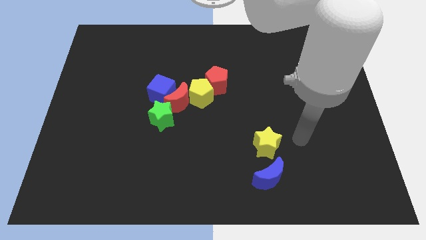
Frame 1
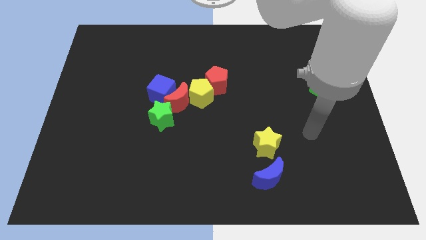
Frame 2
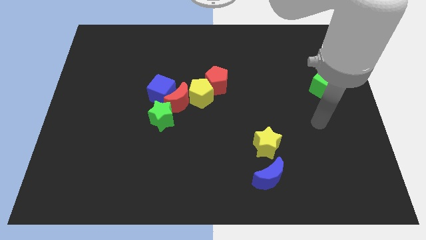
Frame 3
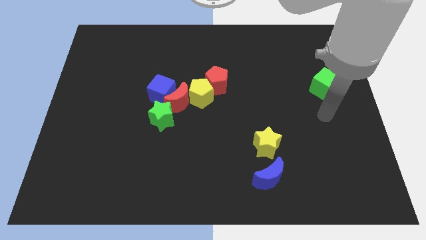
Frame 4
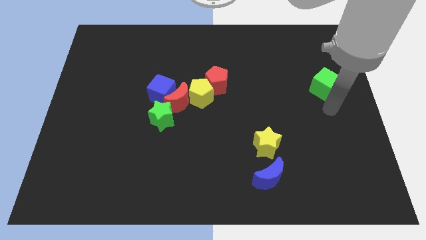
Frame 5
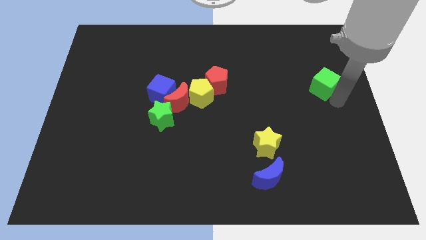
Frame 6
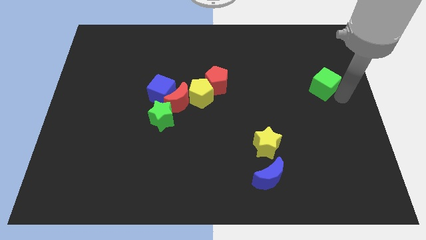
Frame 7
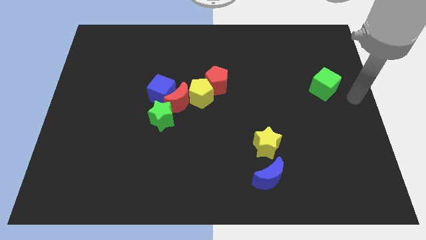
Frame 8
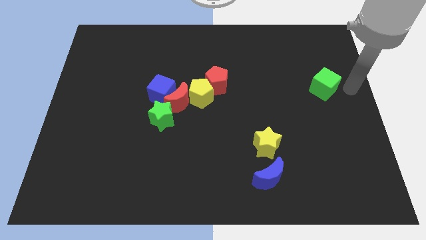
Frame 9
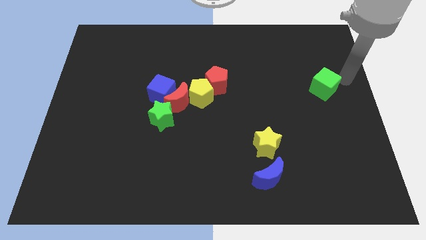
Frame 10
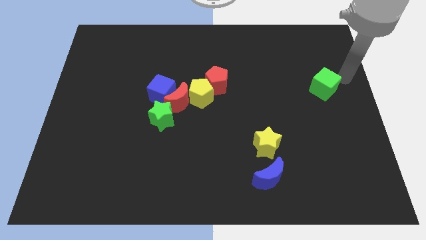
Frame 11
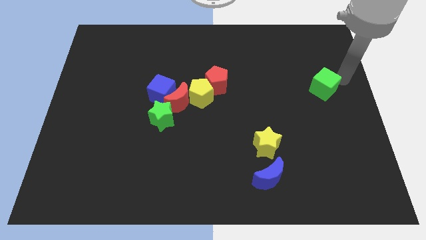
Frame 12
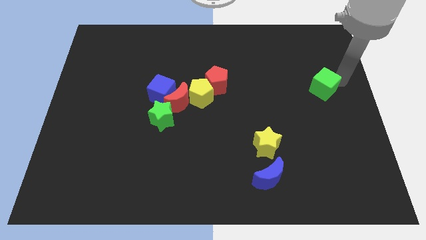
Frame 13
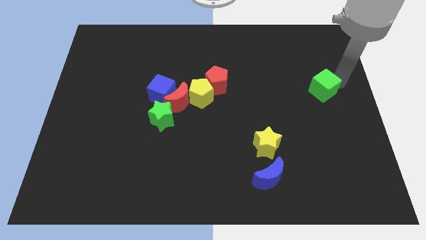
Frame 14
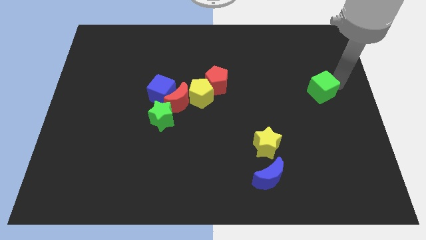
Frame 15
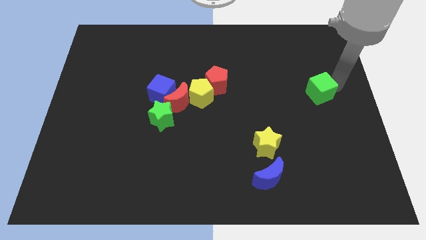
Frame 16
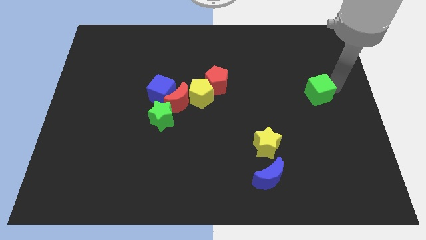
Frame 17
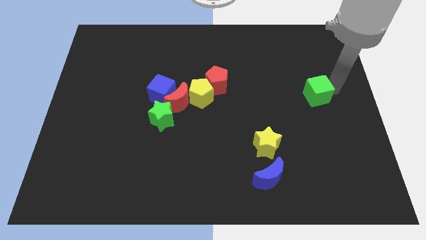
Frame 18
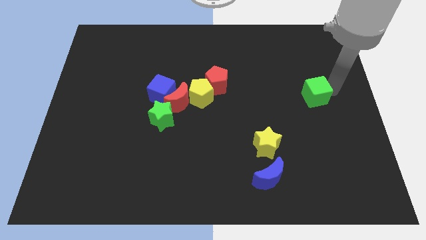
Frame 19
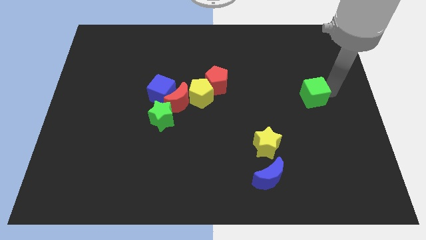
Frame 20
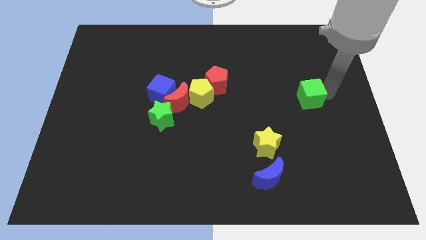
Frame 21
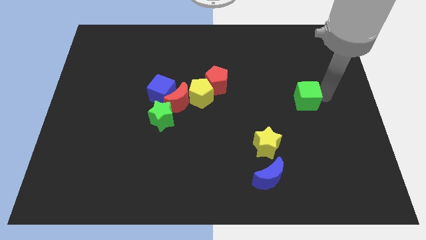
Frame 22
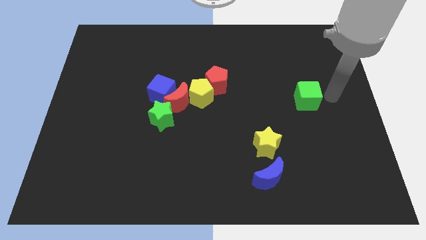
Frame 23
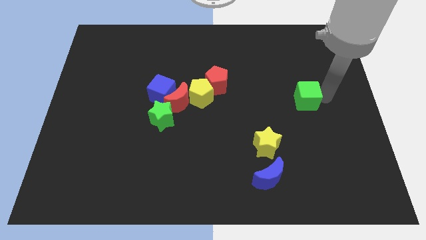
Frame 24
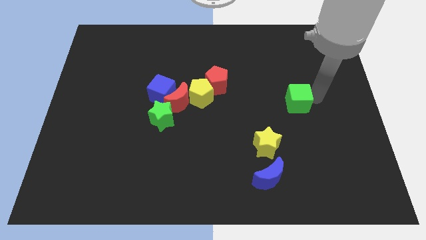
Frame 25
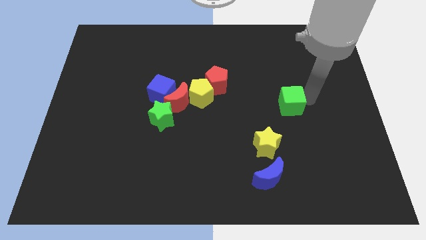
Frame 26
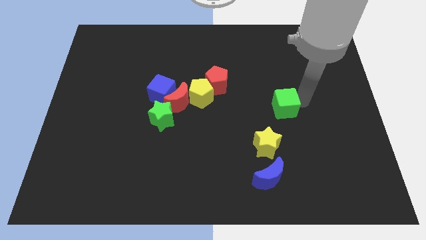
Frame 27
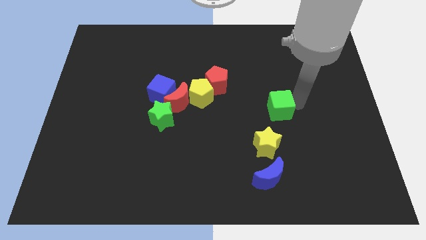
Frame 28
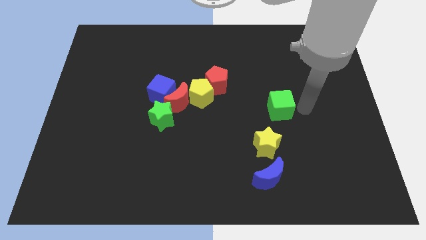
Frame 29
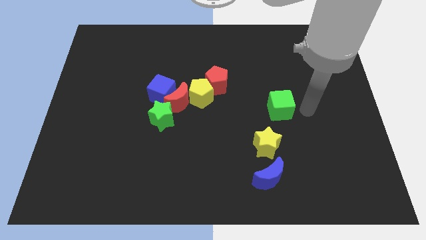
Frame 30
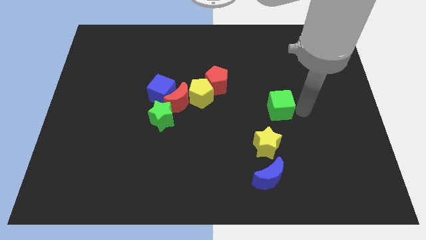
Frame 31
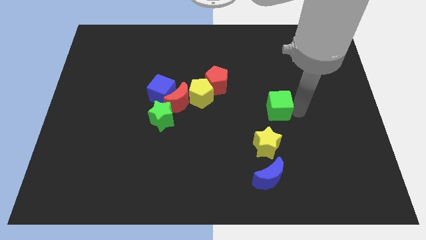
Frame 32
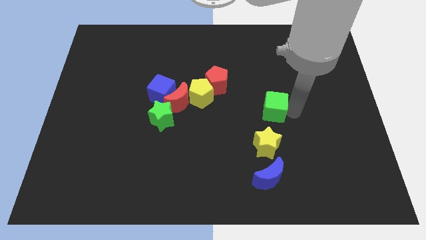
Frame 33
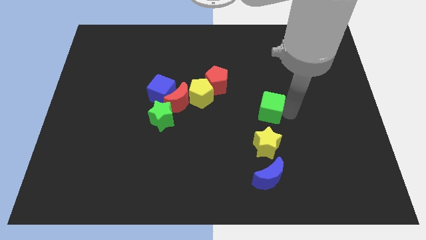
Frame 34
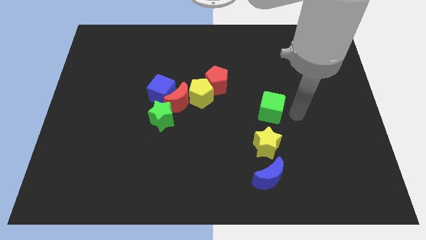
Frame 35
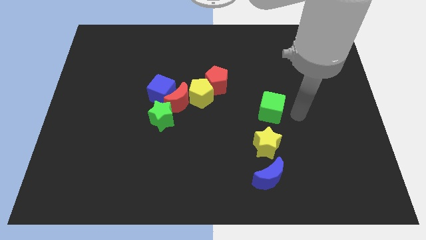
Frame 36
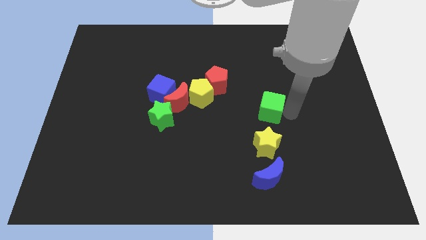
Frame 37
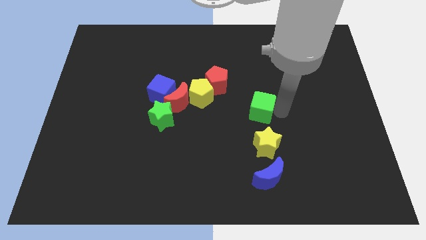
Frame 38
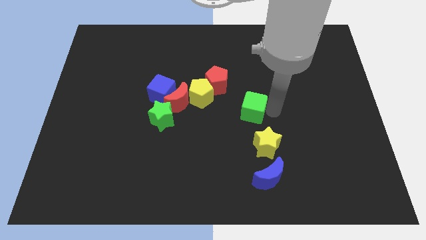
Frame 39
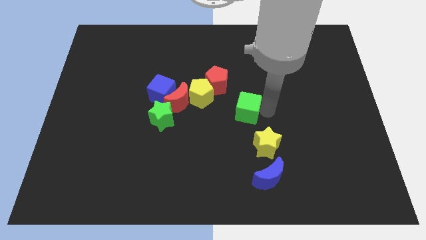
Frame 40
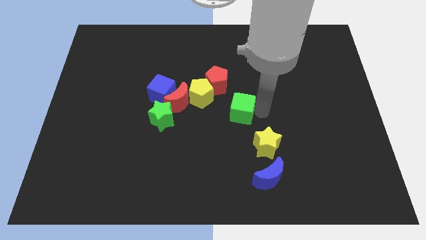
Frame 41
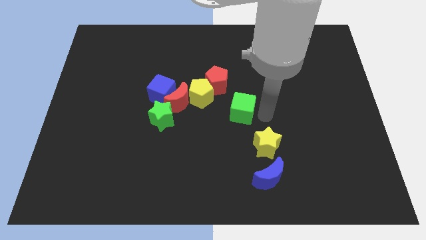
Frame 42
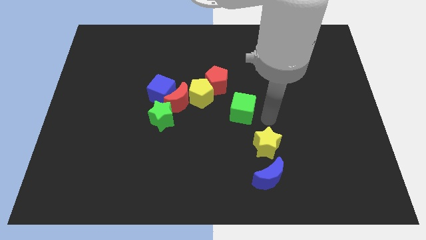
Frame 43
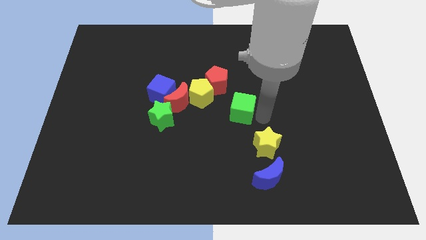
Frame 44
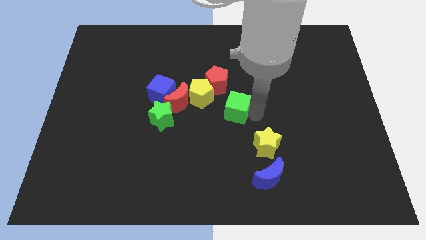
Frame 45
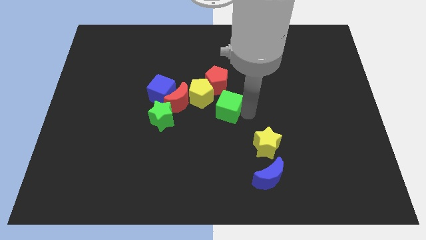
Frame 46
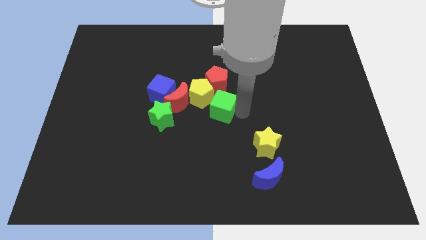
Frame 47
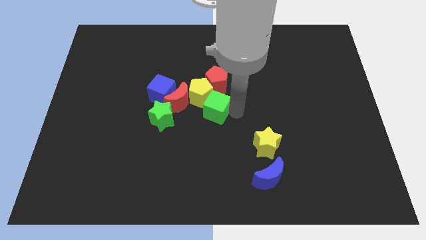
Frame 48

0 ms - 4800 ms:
slide the green cube close to the yellow pentagon

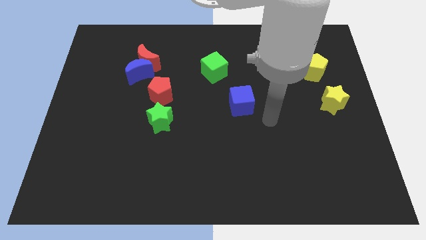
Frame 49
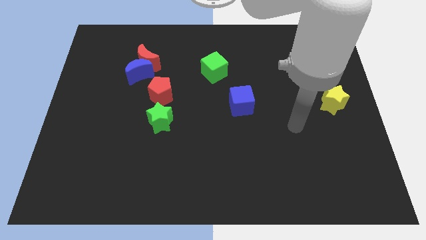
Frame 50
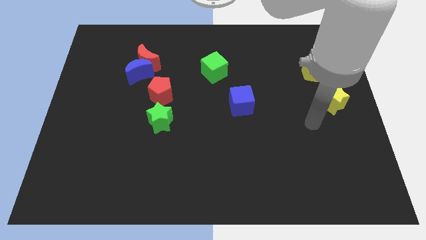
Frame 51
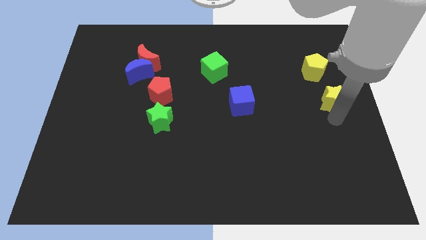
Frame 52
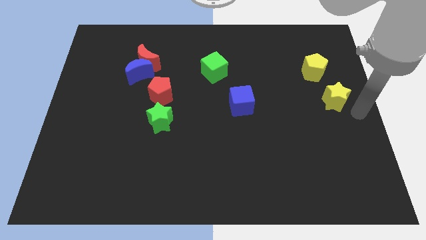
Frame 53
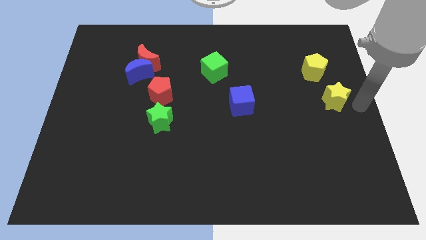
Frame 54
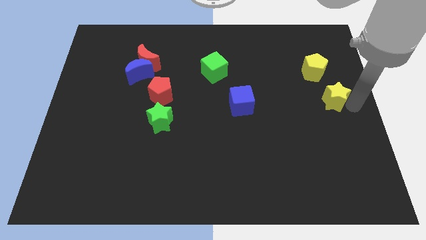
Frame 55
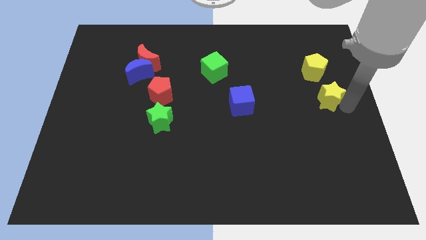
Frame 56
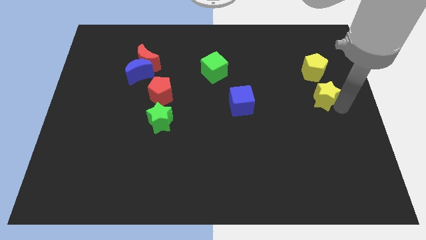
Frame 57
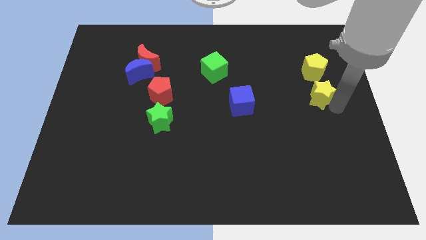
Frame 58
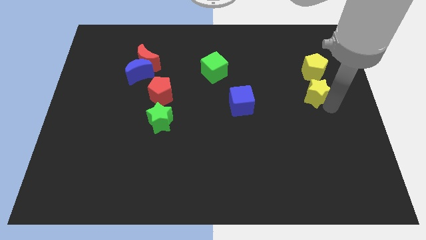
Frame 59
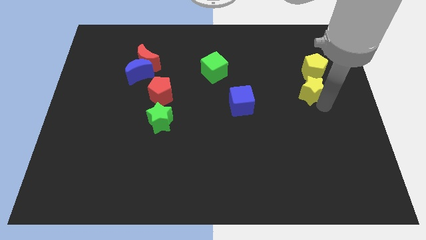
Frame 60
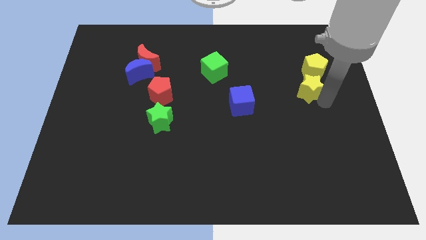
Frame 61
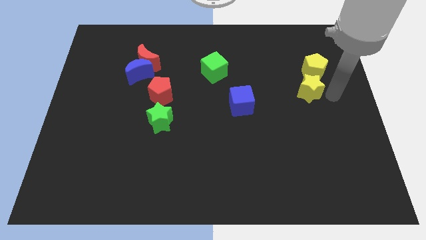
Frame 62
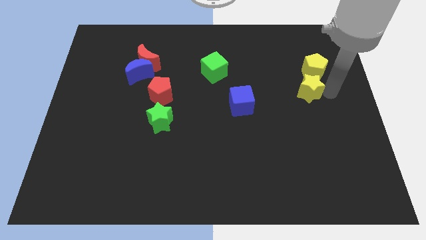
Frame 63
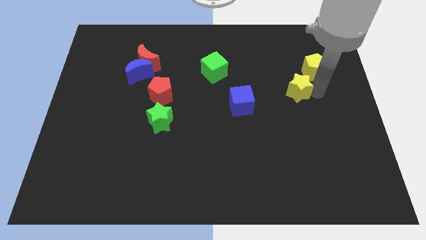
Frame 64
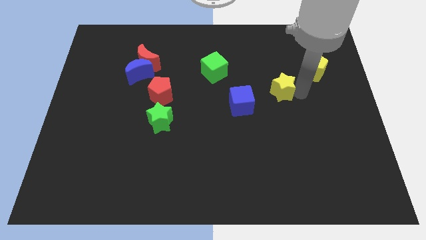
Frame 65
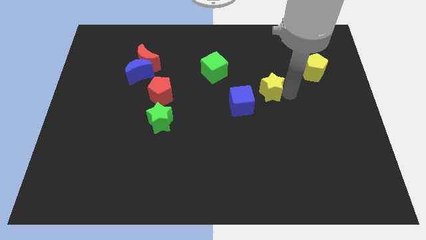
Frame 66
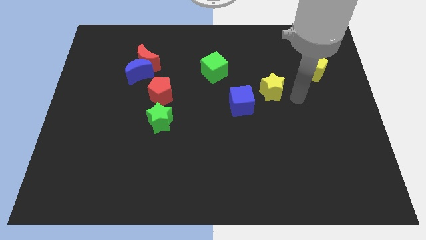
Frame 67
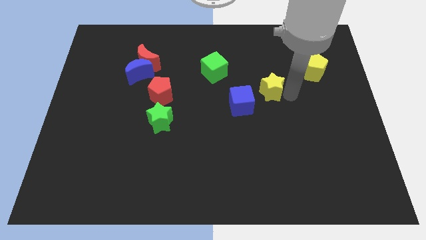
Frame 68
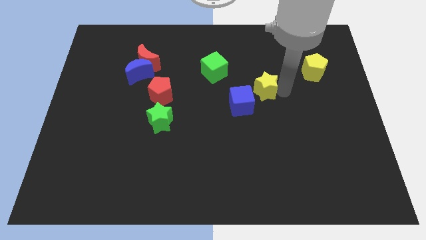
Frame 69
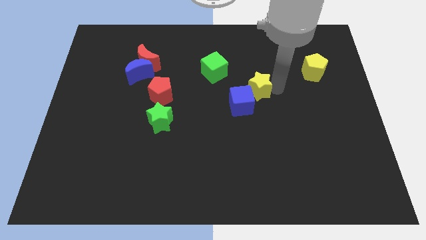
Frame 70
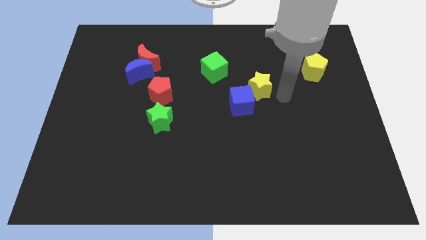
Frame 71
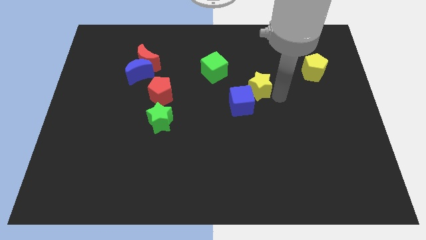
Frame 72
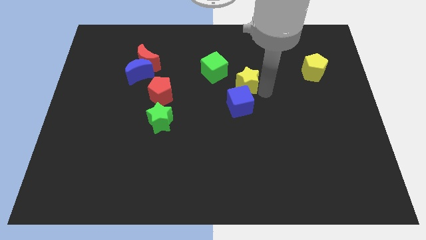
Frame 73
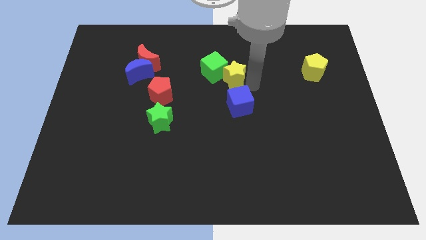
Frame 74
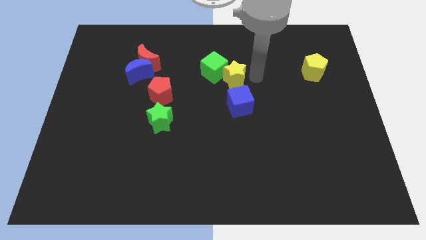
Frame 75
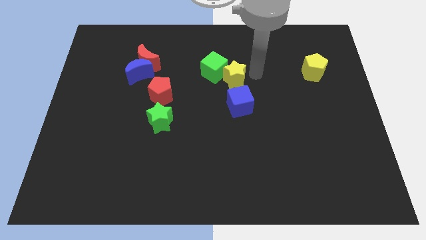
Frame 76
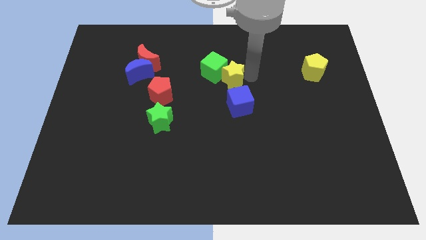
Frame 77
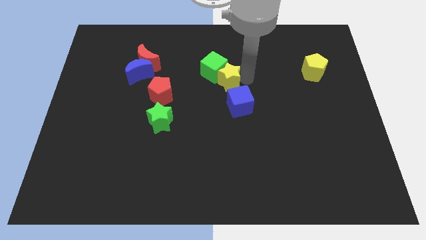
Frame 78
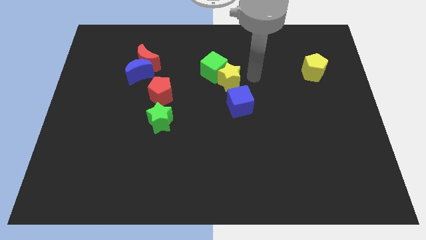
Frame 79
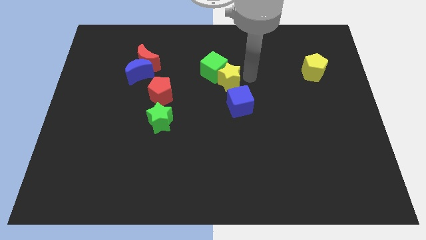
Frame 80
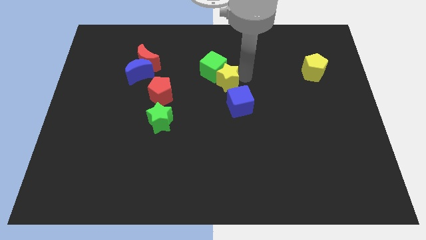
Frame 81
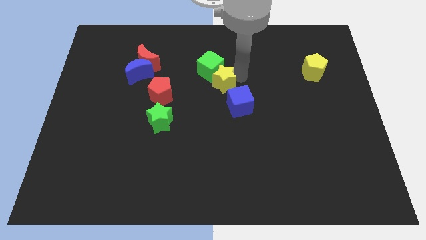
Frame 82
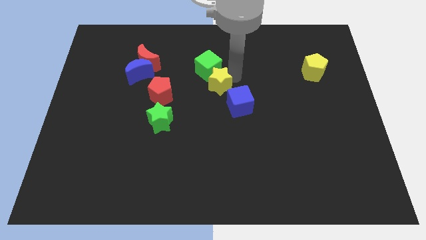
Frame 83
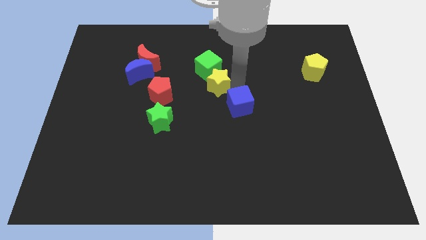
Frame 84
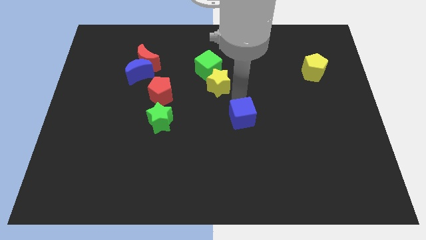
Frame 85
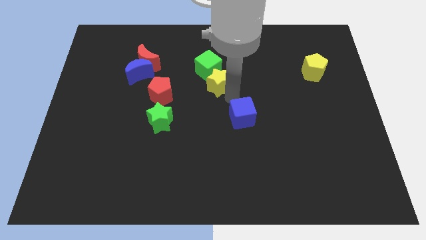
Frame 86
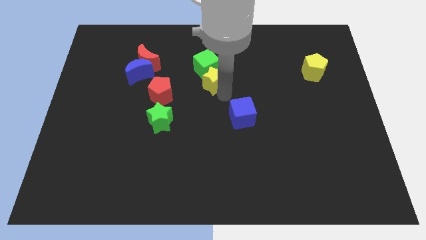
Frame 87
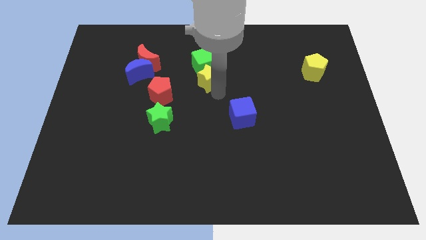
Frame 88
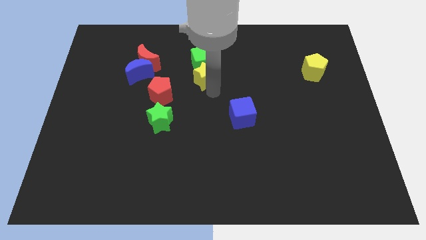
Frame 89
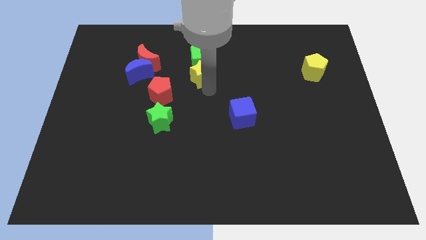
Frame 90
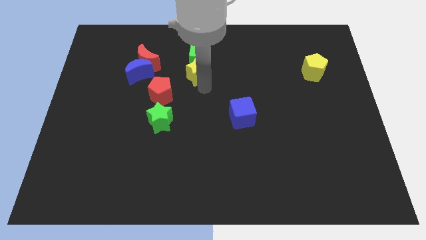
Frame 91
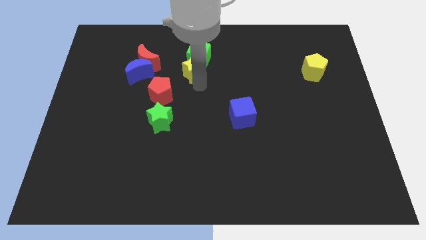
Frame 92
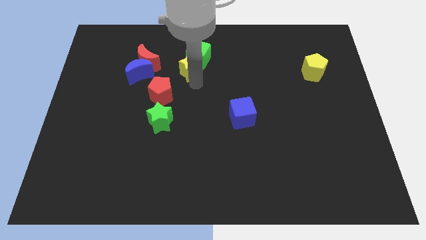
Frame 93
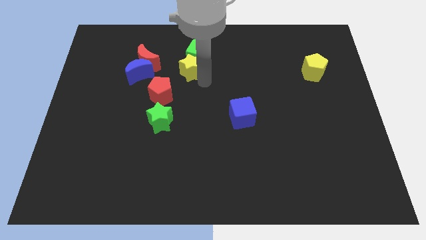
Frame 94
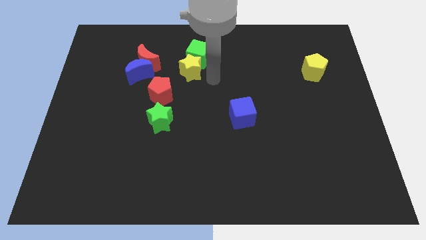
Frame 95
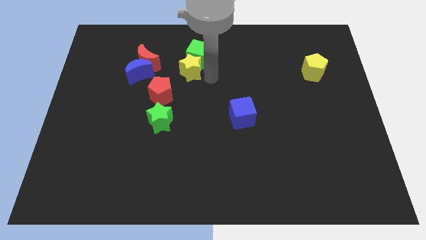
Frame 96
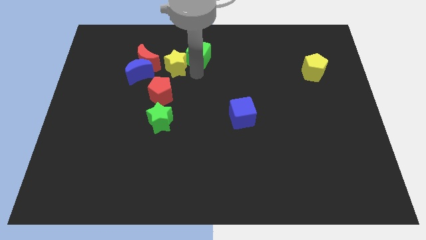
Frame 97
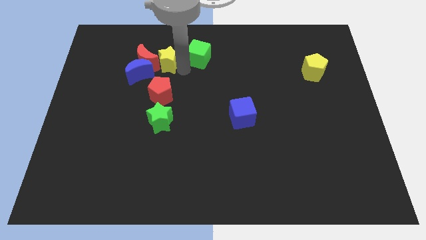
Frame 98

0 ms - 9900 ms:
move the yellow star towards the red moon
